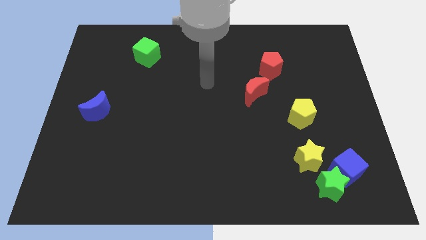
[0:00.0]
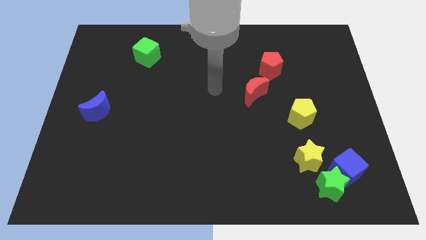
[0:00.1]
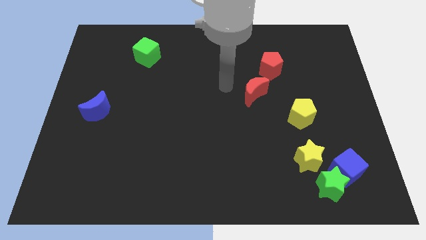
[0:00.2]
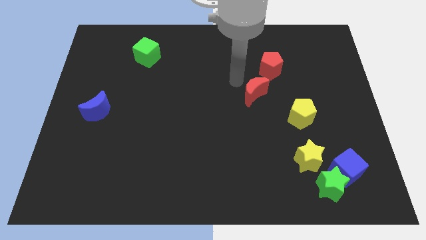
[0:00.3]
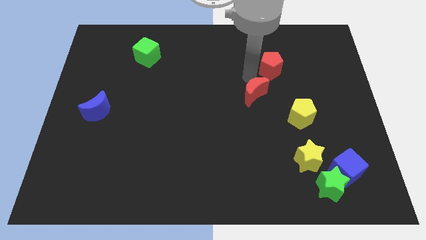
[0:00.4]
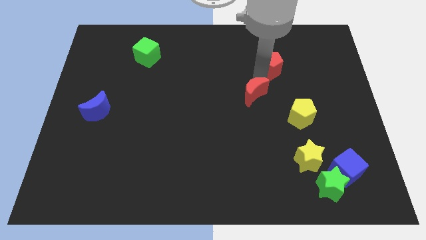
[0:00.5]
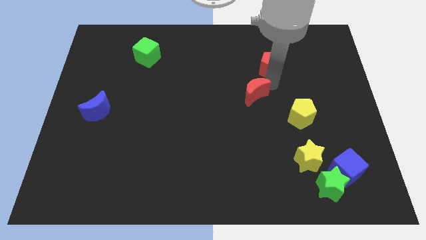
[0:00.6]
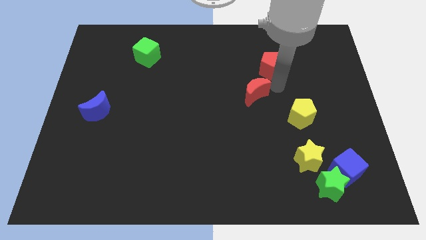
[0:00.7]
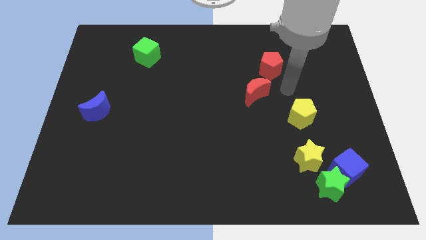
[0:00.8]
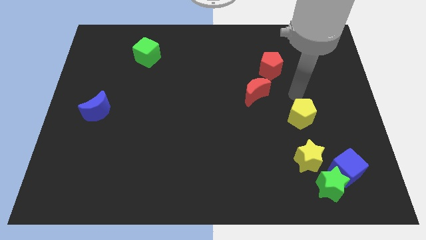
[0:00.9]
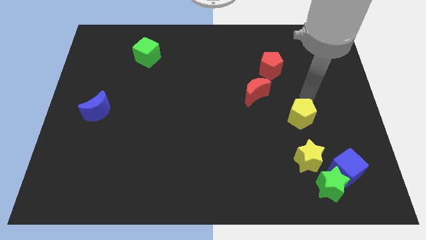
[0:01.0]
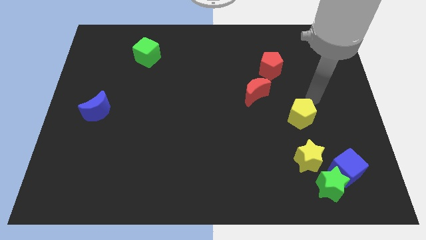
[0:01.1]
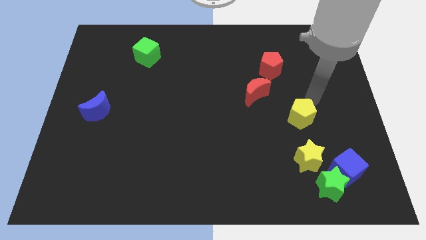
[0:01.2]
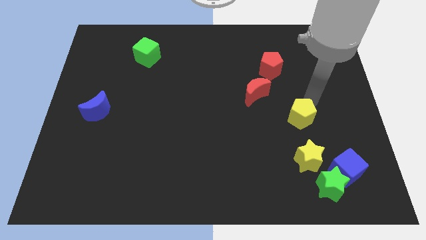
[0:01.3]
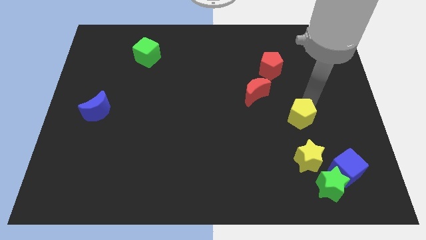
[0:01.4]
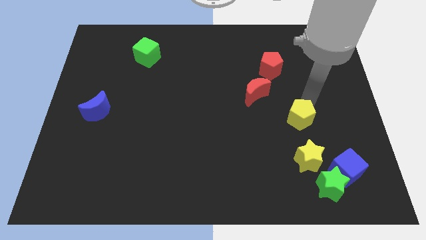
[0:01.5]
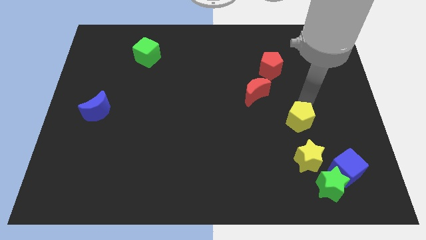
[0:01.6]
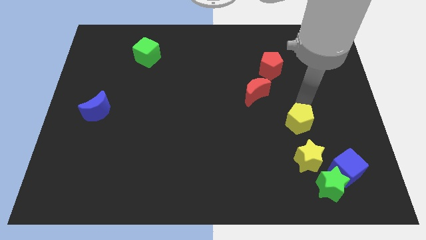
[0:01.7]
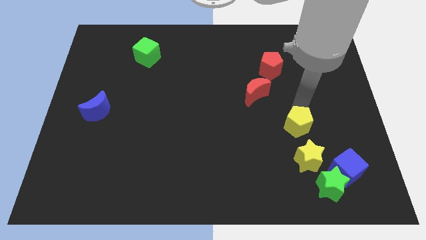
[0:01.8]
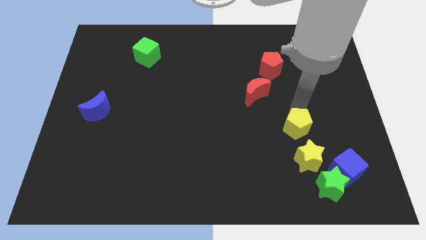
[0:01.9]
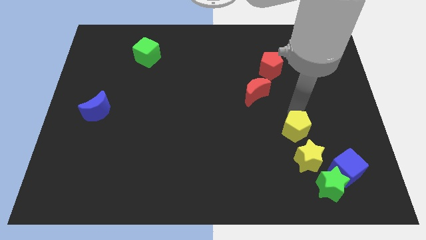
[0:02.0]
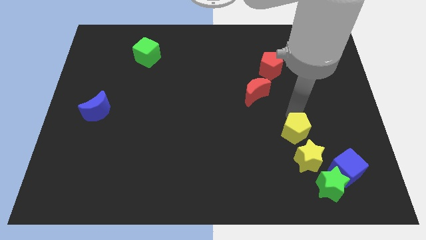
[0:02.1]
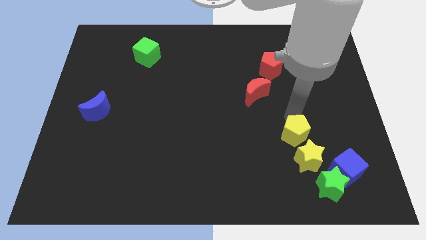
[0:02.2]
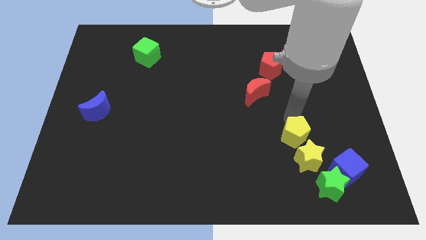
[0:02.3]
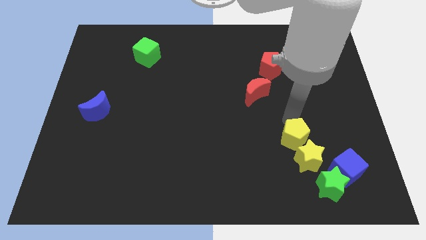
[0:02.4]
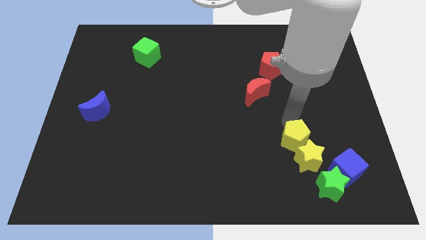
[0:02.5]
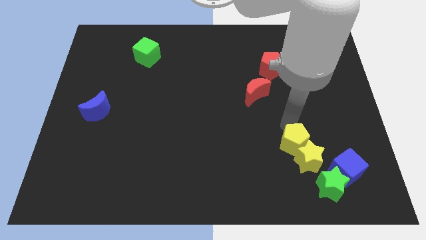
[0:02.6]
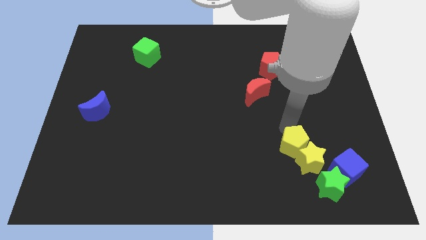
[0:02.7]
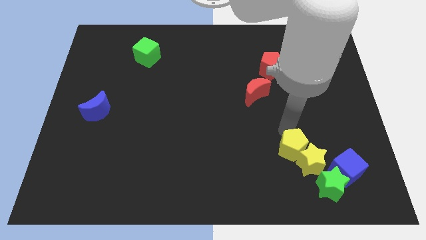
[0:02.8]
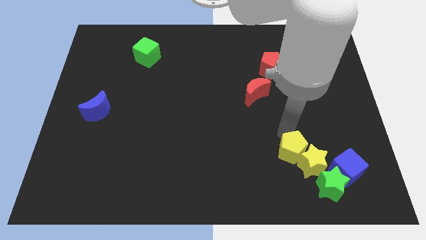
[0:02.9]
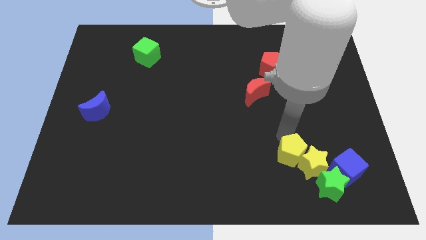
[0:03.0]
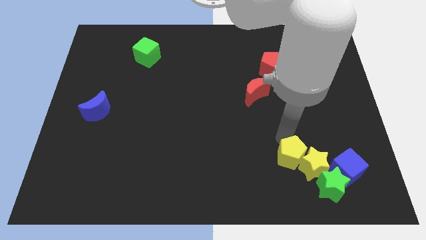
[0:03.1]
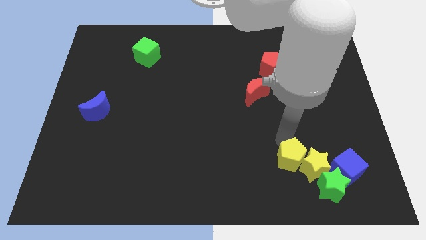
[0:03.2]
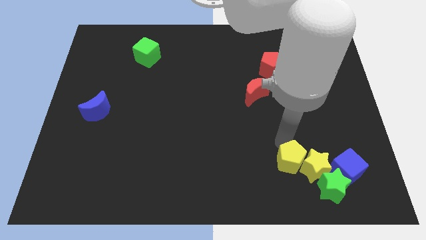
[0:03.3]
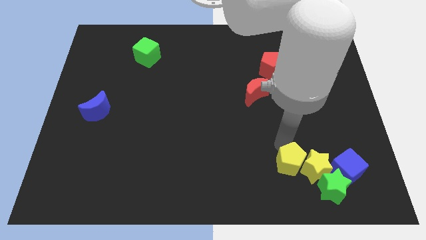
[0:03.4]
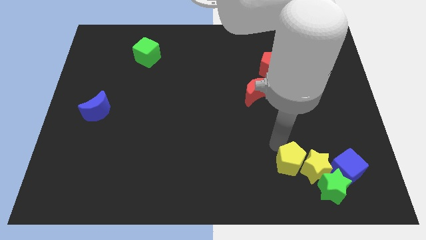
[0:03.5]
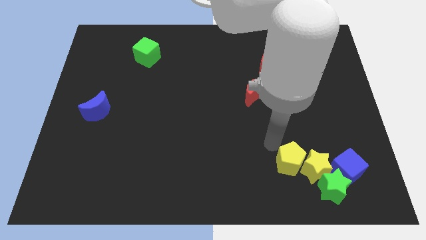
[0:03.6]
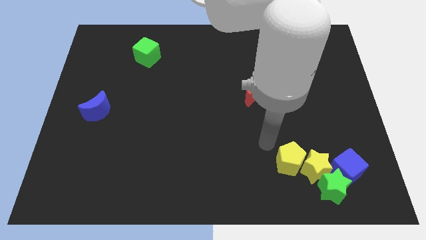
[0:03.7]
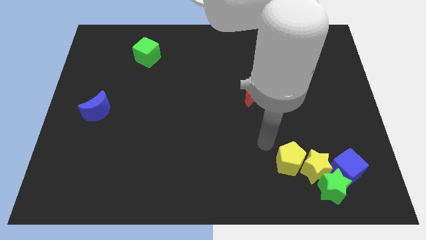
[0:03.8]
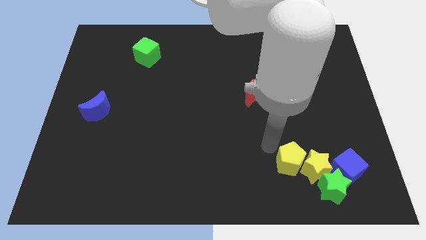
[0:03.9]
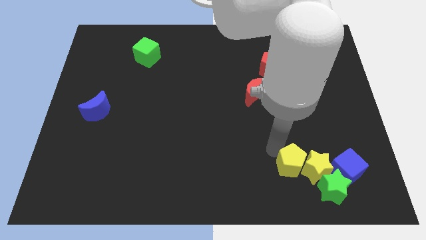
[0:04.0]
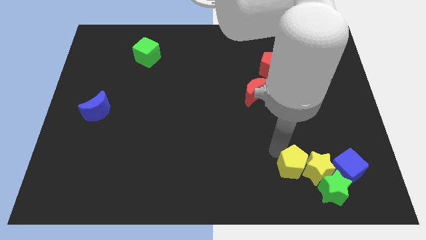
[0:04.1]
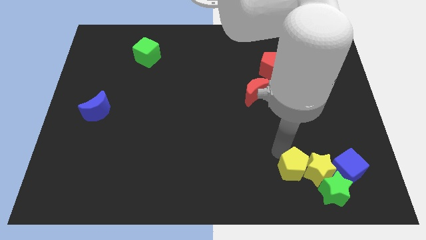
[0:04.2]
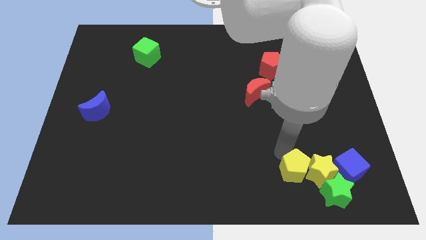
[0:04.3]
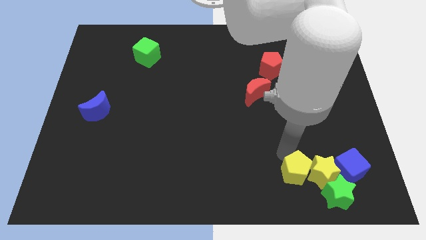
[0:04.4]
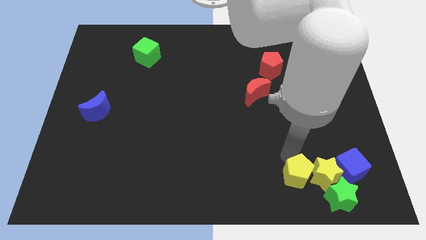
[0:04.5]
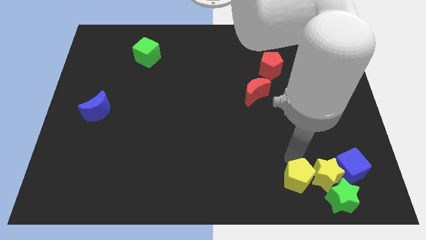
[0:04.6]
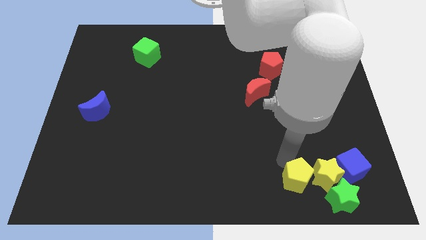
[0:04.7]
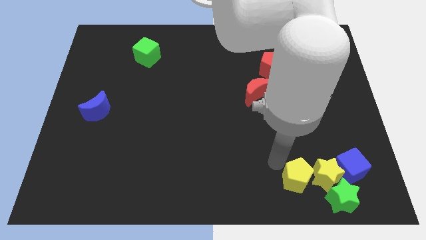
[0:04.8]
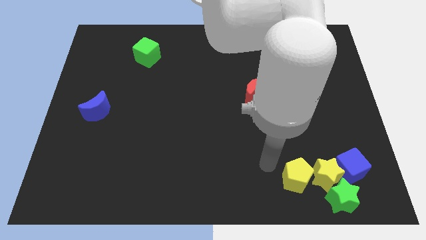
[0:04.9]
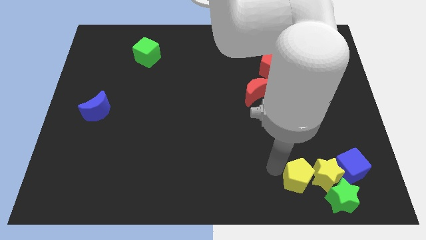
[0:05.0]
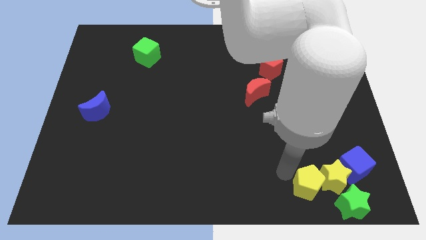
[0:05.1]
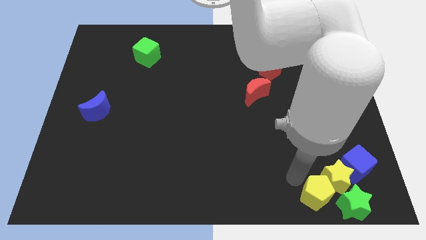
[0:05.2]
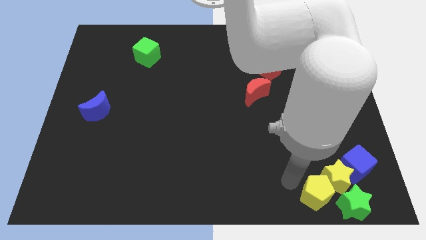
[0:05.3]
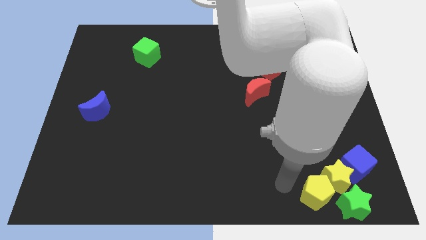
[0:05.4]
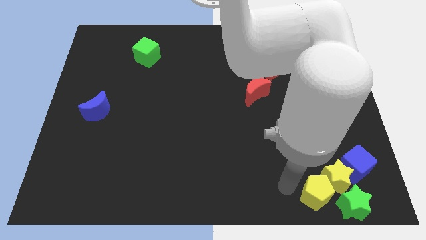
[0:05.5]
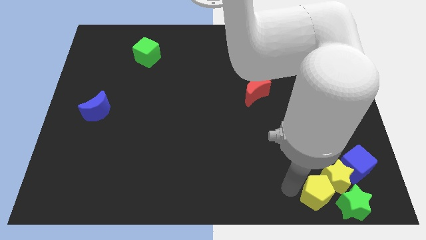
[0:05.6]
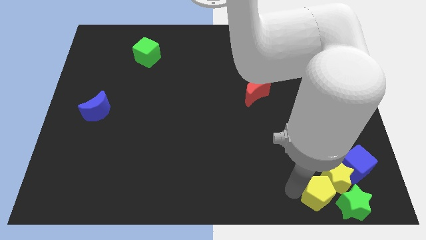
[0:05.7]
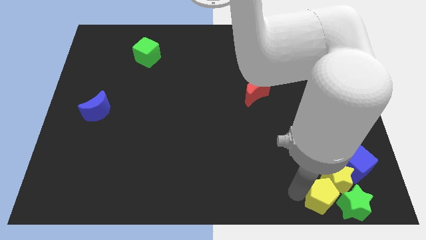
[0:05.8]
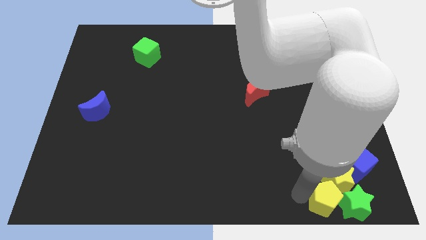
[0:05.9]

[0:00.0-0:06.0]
push the yellow pentagon towards the green star
